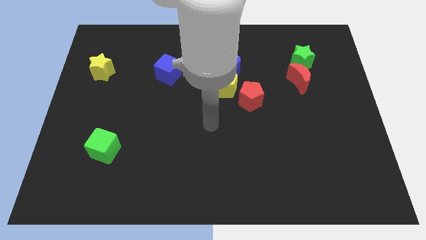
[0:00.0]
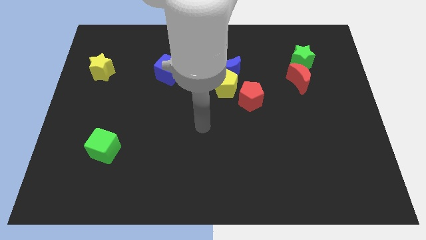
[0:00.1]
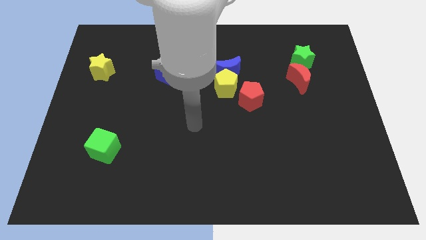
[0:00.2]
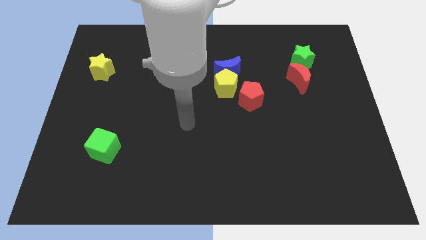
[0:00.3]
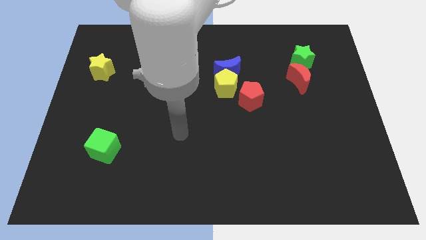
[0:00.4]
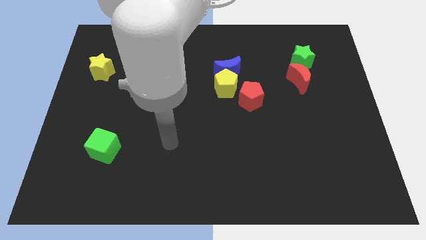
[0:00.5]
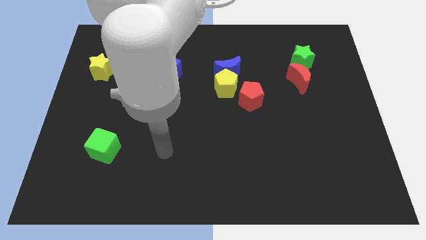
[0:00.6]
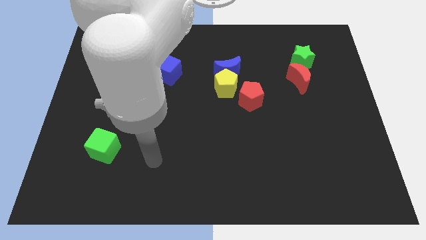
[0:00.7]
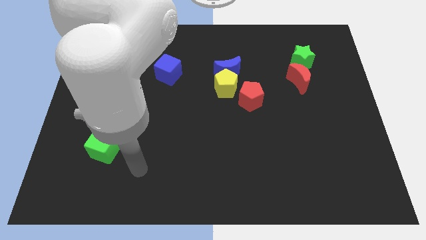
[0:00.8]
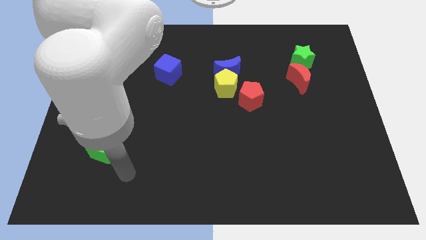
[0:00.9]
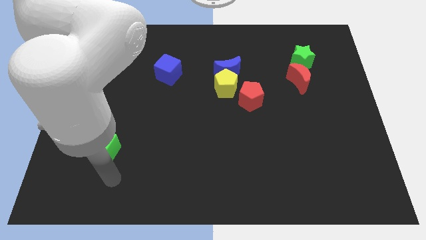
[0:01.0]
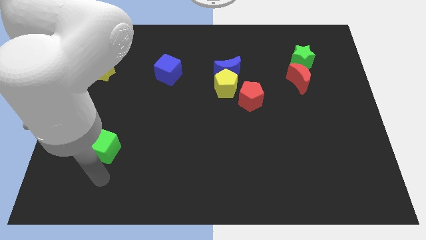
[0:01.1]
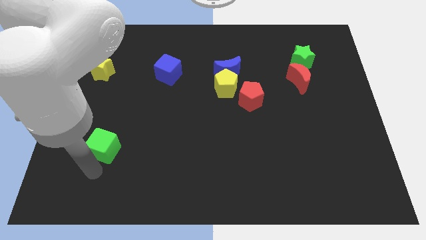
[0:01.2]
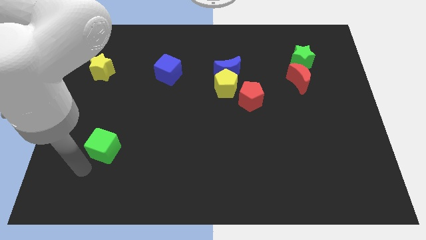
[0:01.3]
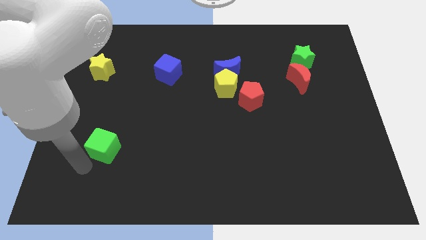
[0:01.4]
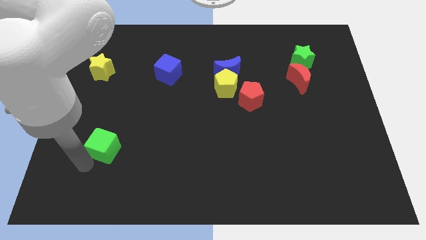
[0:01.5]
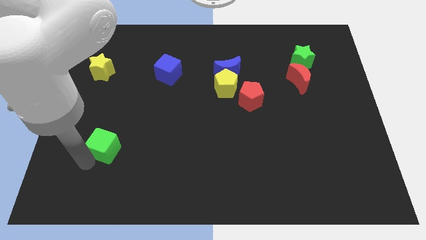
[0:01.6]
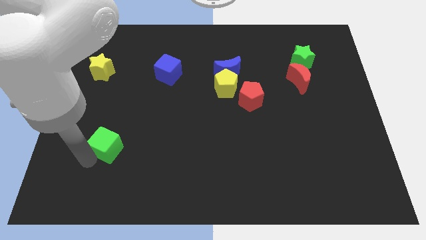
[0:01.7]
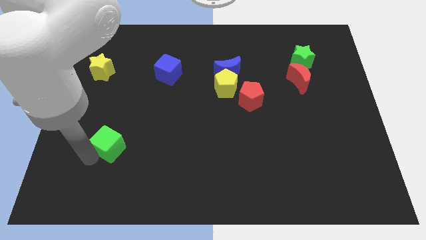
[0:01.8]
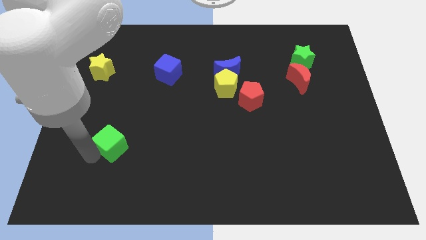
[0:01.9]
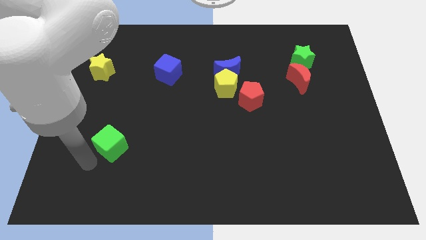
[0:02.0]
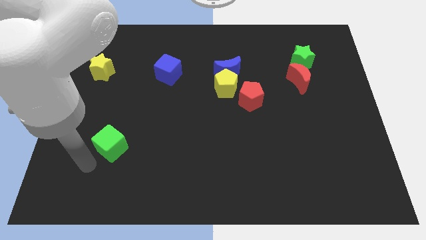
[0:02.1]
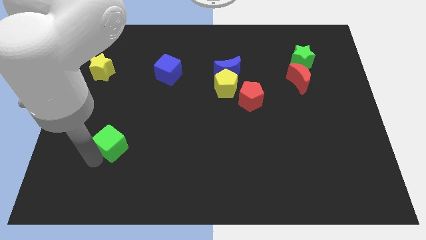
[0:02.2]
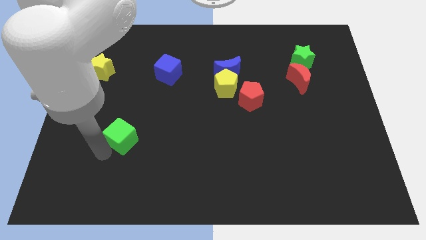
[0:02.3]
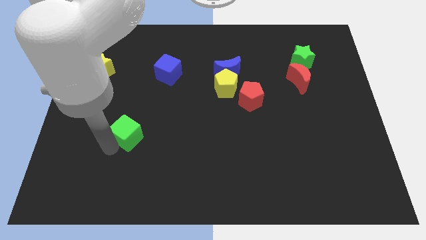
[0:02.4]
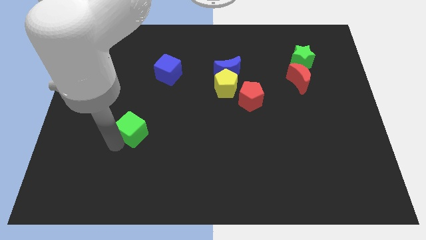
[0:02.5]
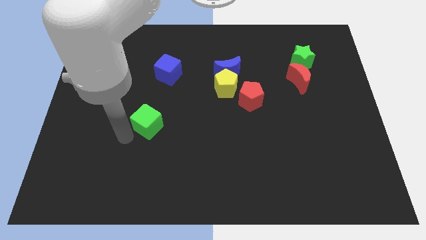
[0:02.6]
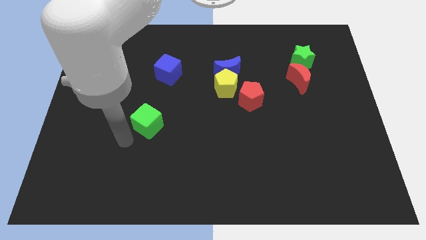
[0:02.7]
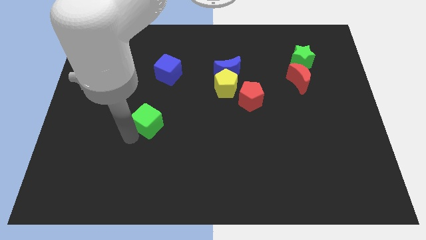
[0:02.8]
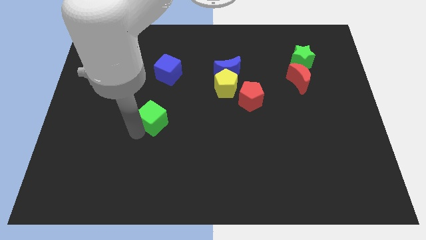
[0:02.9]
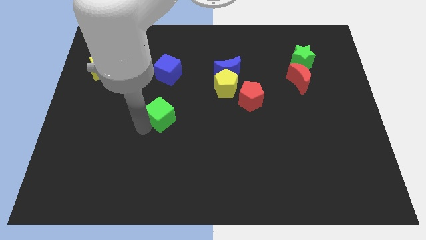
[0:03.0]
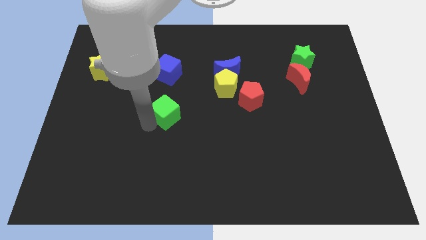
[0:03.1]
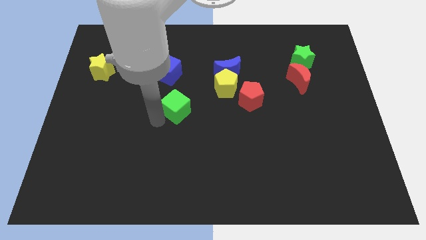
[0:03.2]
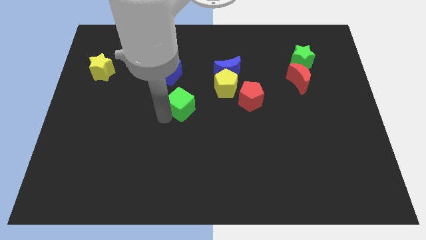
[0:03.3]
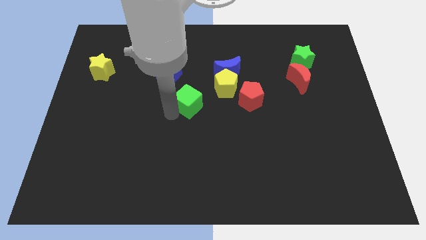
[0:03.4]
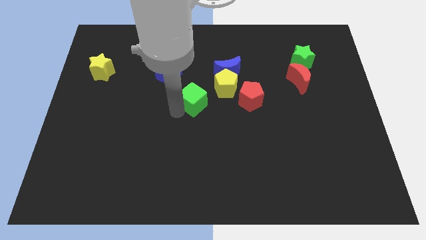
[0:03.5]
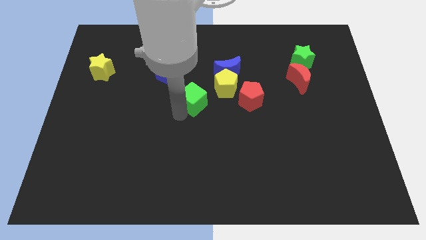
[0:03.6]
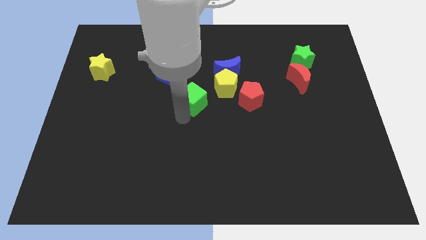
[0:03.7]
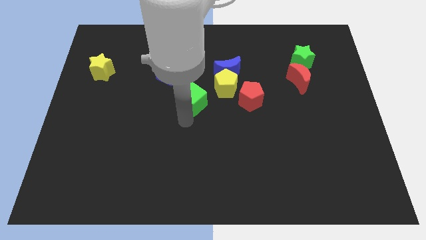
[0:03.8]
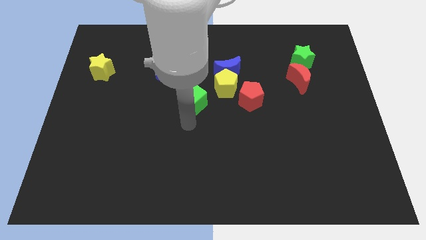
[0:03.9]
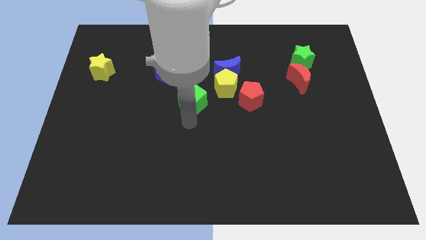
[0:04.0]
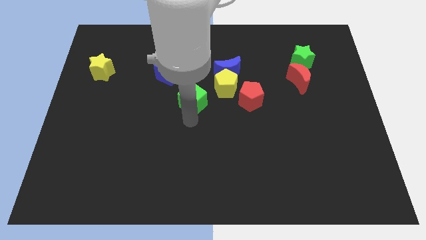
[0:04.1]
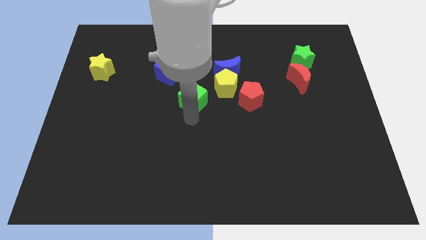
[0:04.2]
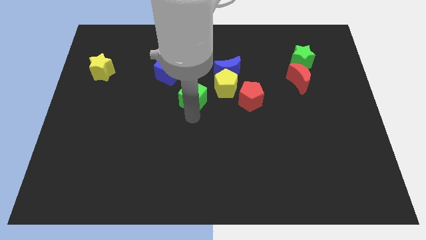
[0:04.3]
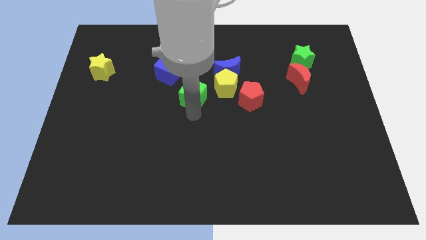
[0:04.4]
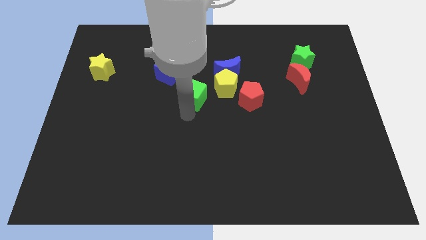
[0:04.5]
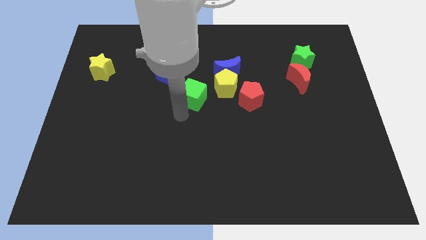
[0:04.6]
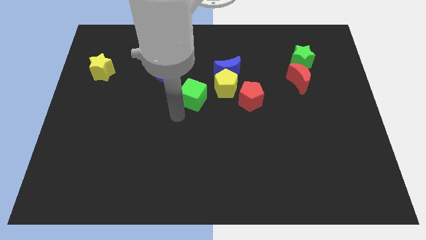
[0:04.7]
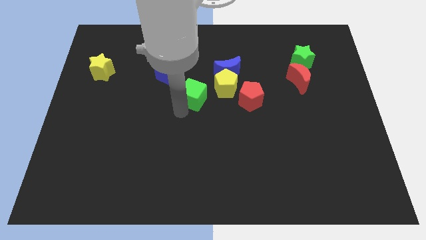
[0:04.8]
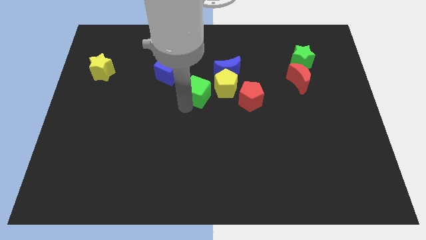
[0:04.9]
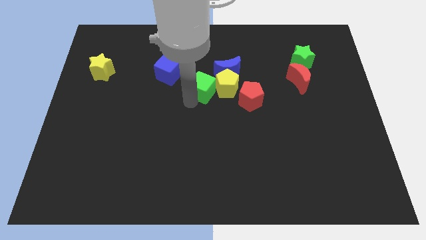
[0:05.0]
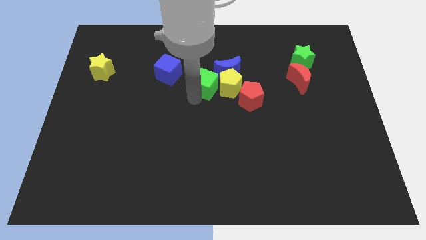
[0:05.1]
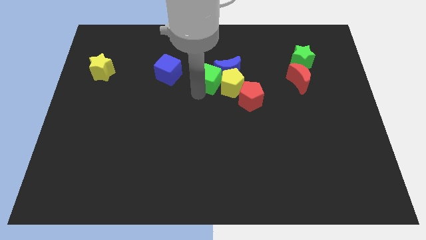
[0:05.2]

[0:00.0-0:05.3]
slide the green cube to the blue moon

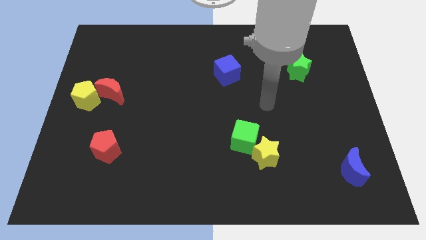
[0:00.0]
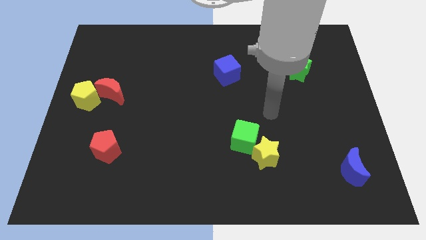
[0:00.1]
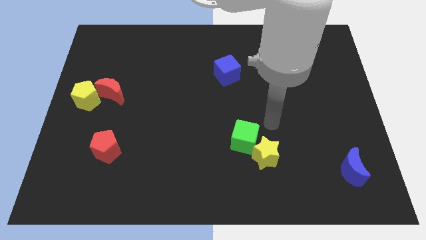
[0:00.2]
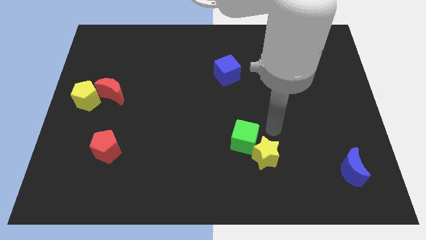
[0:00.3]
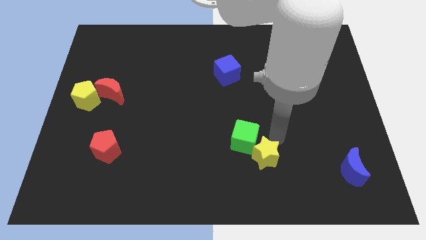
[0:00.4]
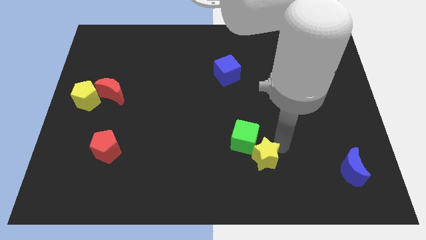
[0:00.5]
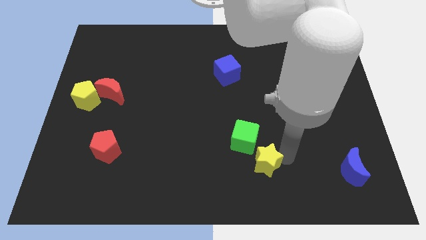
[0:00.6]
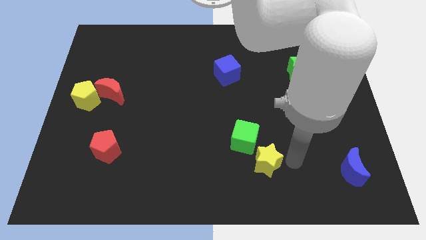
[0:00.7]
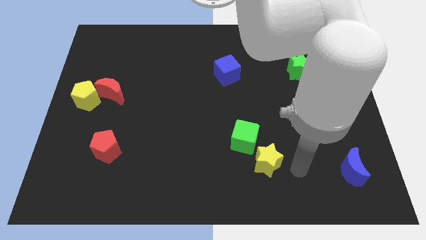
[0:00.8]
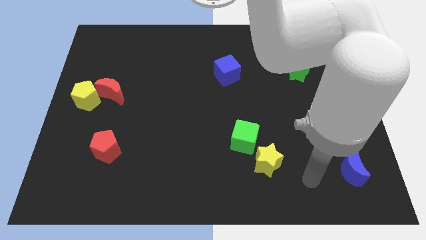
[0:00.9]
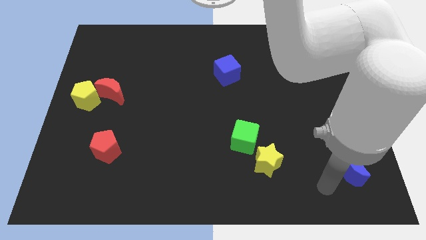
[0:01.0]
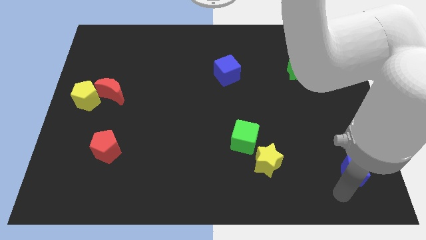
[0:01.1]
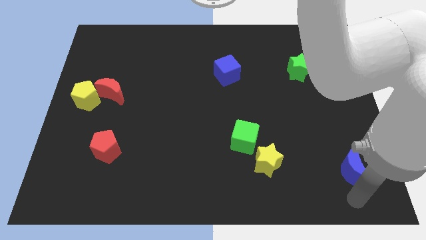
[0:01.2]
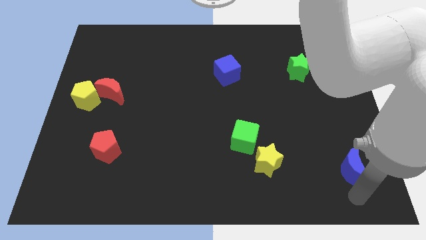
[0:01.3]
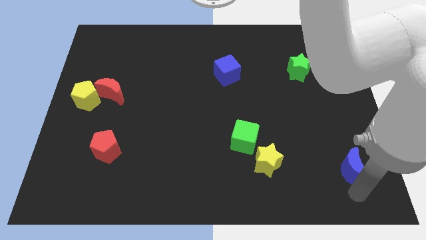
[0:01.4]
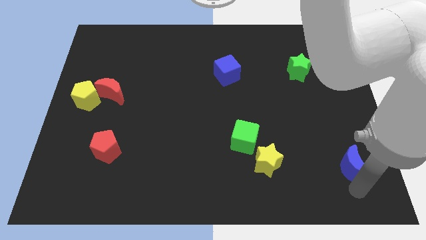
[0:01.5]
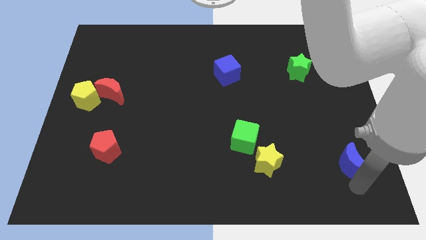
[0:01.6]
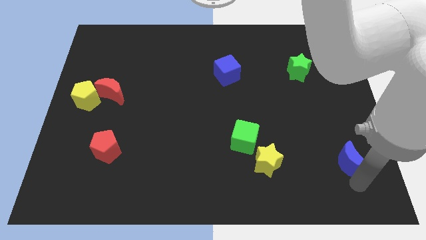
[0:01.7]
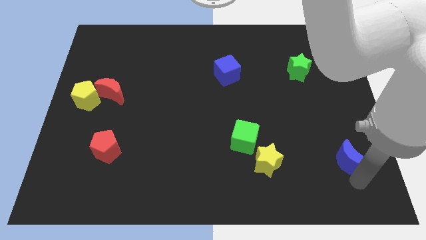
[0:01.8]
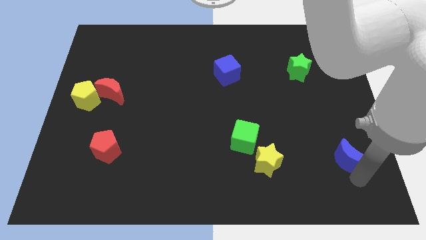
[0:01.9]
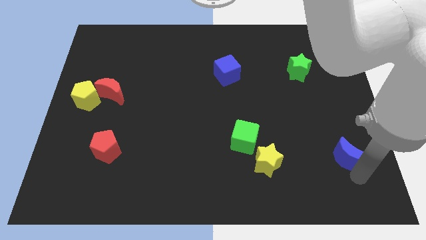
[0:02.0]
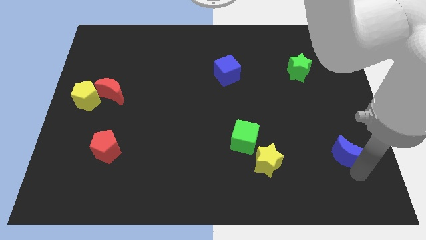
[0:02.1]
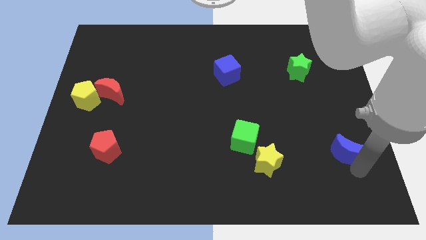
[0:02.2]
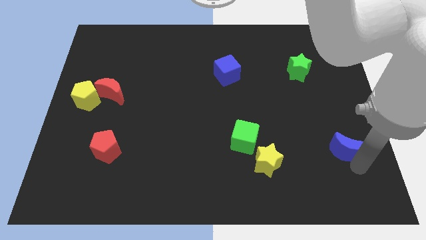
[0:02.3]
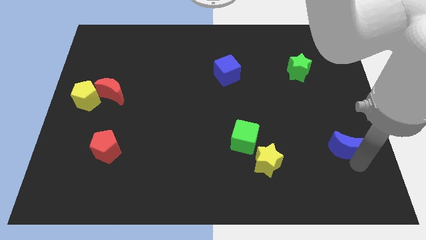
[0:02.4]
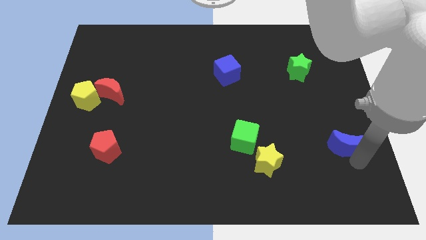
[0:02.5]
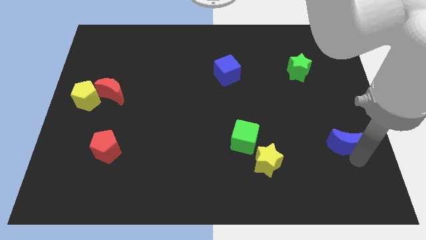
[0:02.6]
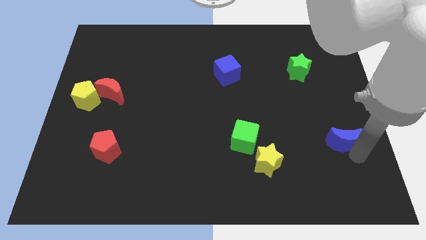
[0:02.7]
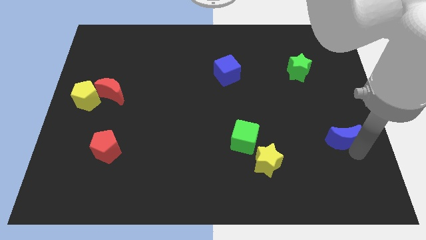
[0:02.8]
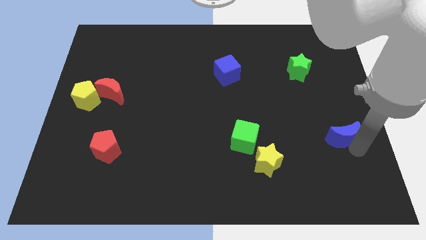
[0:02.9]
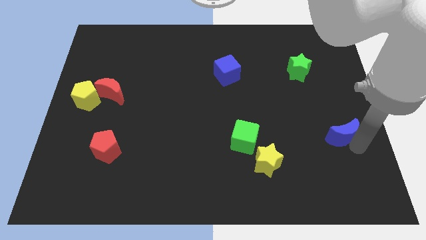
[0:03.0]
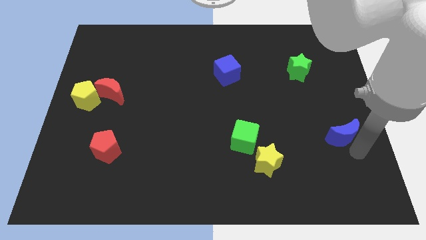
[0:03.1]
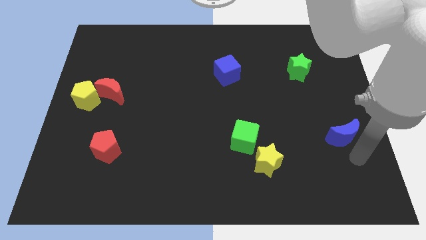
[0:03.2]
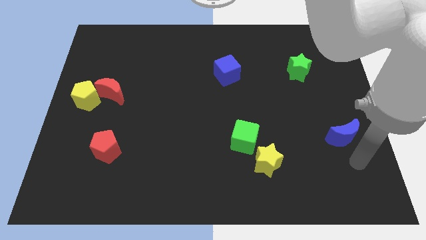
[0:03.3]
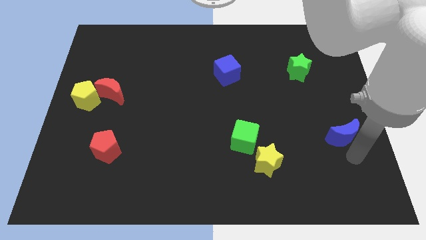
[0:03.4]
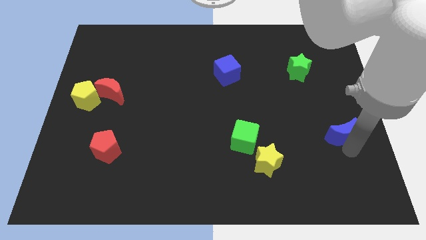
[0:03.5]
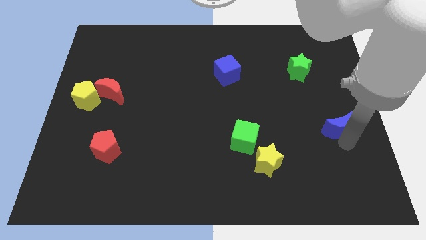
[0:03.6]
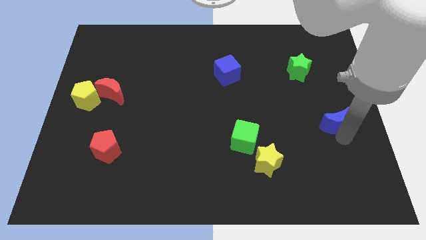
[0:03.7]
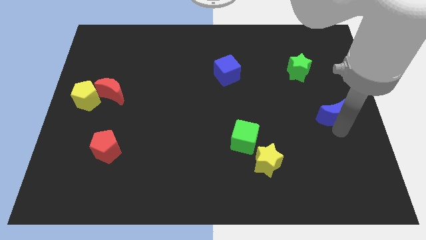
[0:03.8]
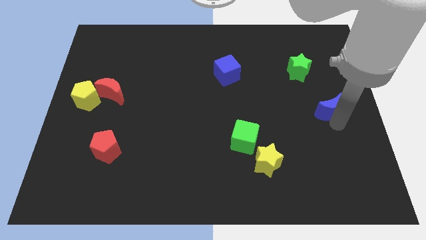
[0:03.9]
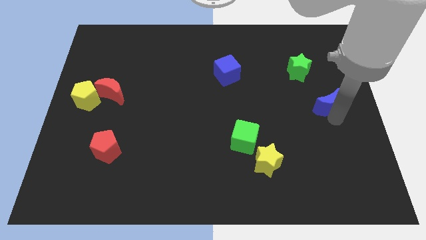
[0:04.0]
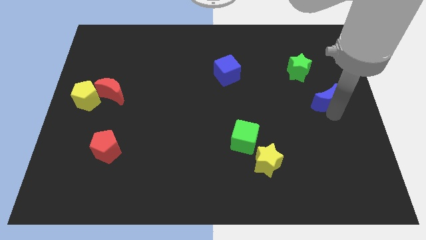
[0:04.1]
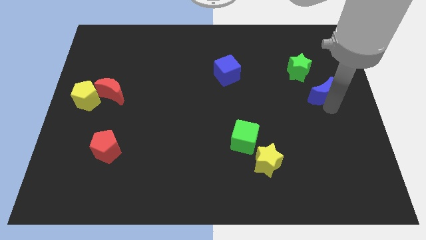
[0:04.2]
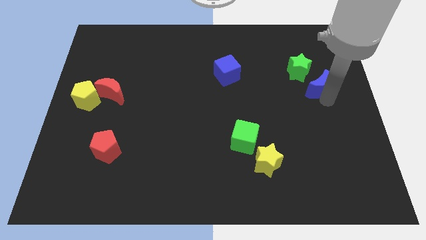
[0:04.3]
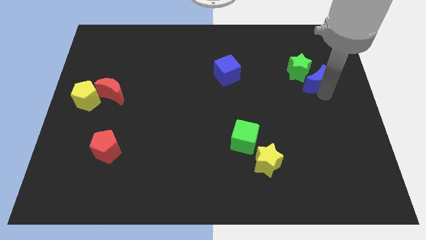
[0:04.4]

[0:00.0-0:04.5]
put the blue moon towards the green star
